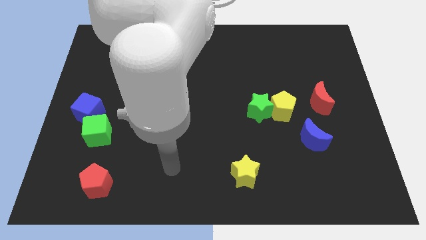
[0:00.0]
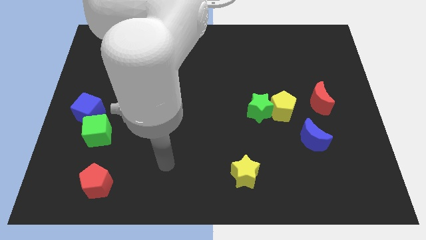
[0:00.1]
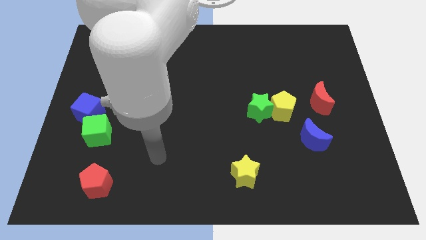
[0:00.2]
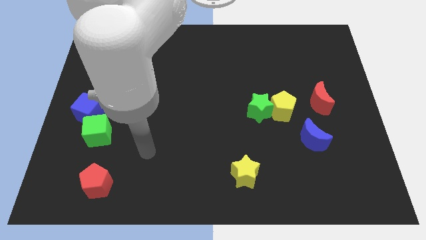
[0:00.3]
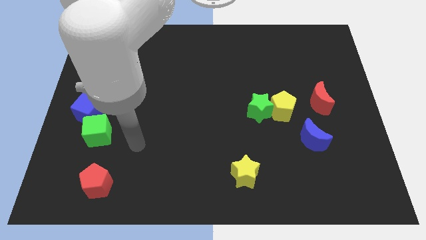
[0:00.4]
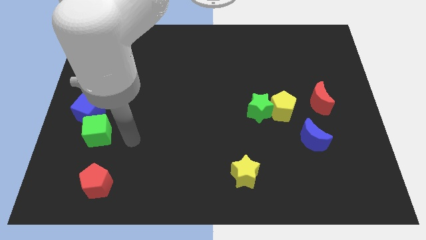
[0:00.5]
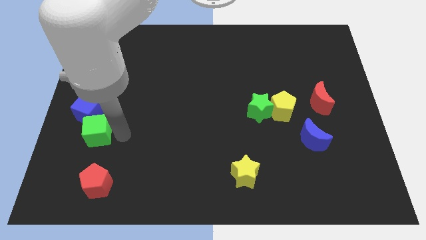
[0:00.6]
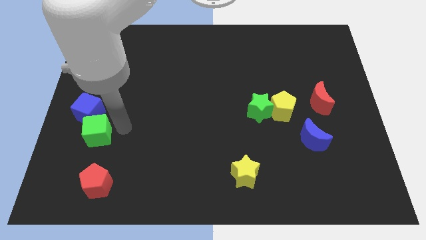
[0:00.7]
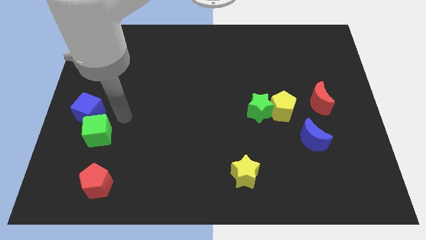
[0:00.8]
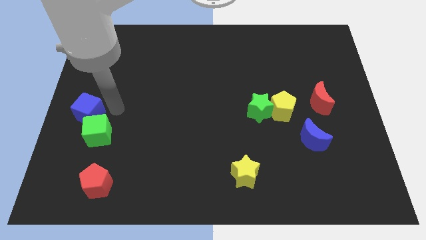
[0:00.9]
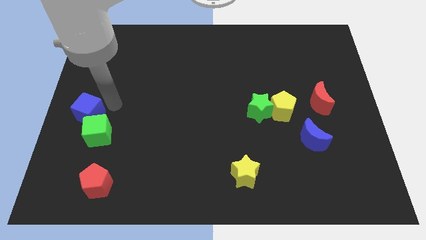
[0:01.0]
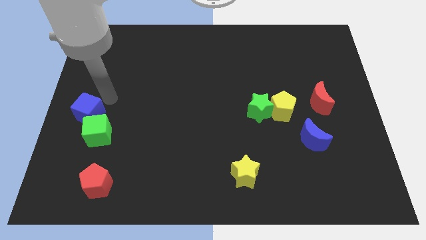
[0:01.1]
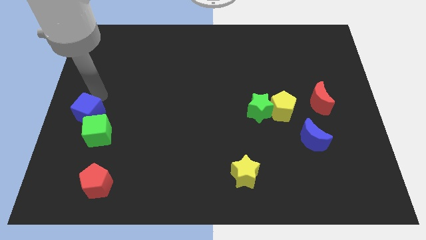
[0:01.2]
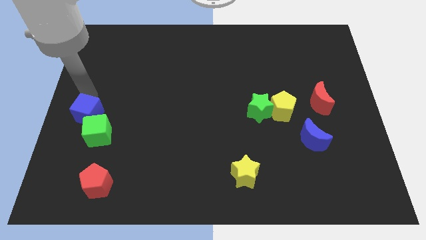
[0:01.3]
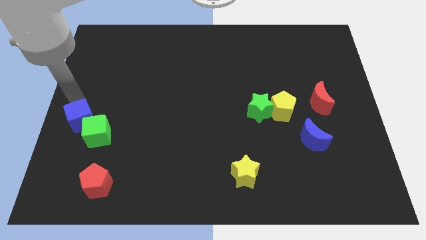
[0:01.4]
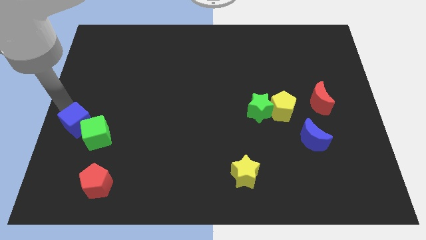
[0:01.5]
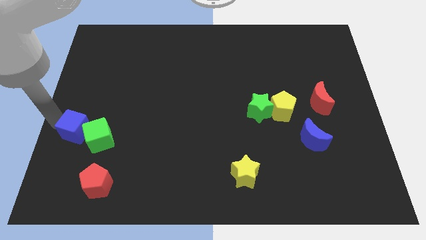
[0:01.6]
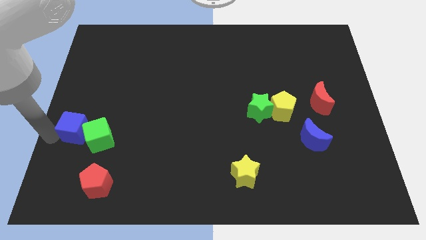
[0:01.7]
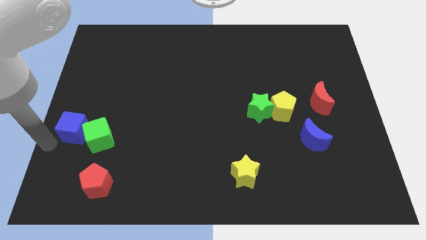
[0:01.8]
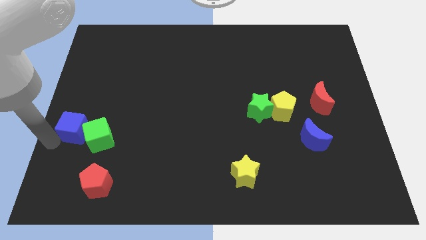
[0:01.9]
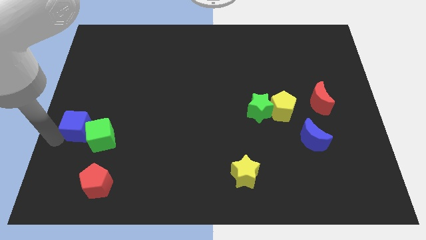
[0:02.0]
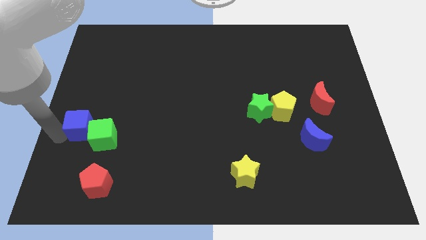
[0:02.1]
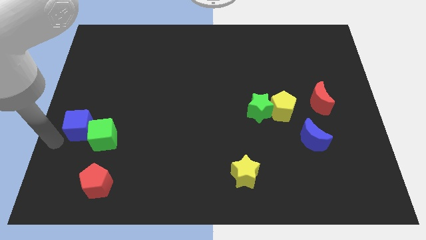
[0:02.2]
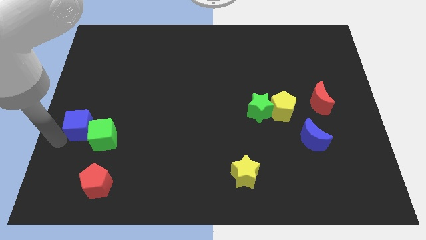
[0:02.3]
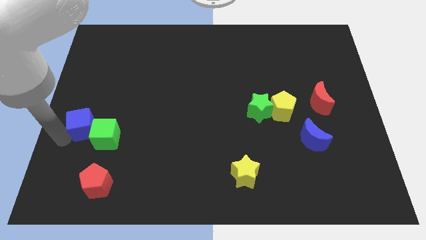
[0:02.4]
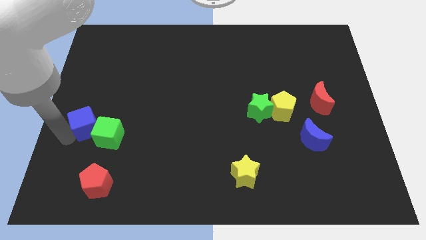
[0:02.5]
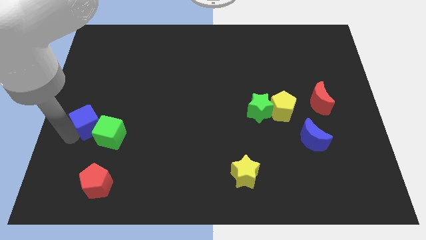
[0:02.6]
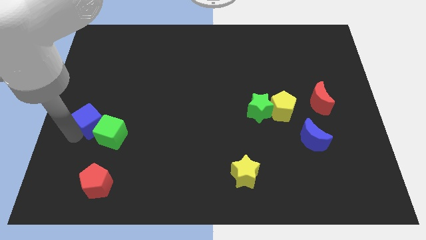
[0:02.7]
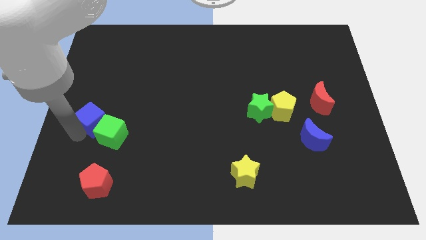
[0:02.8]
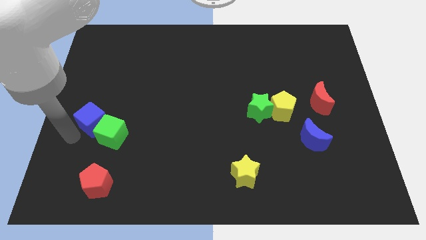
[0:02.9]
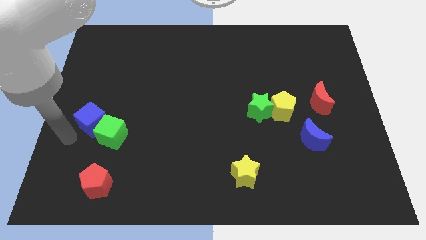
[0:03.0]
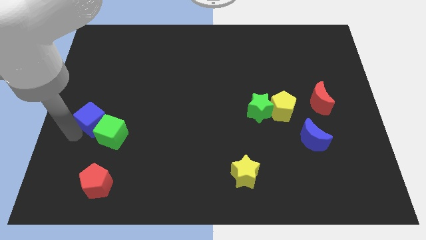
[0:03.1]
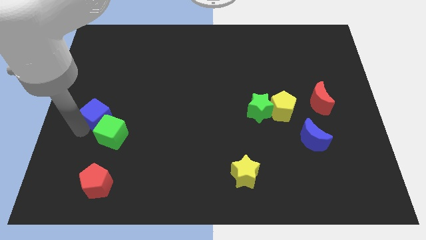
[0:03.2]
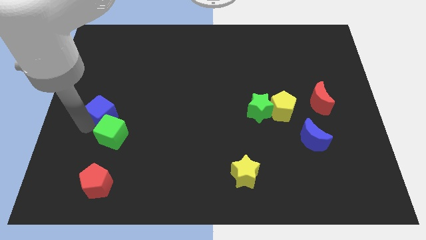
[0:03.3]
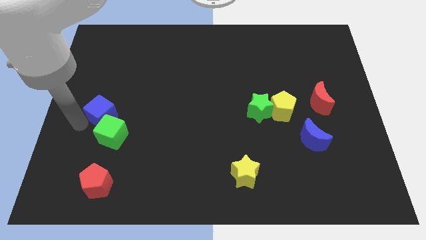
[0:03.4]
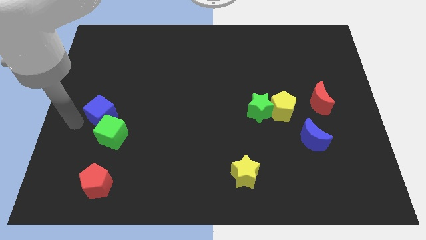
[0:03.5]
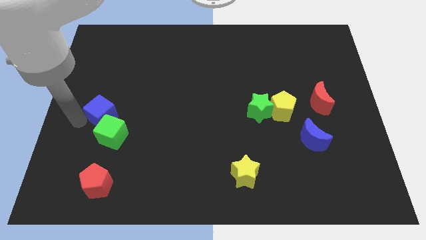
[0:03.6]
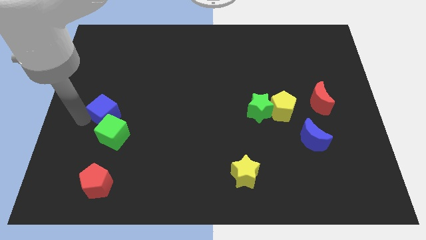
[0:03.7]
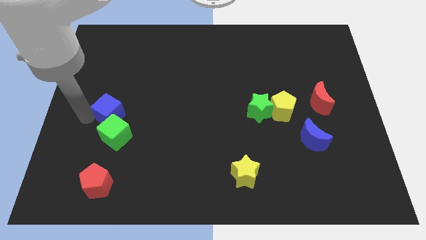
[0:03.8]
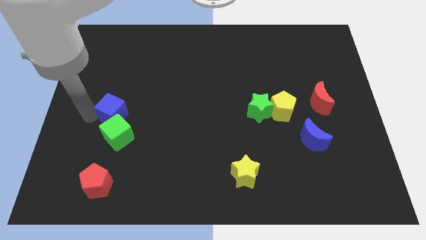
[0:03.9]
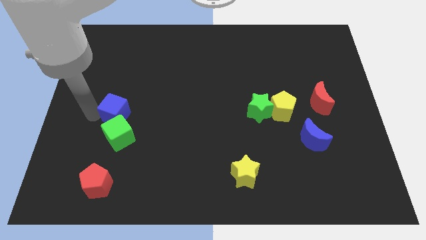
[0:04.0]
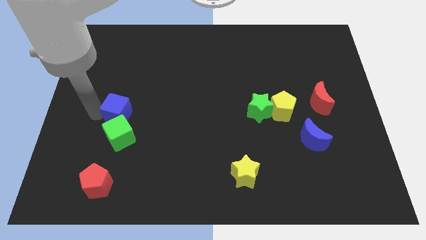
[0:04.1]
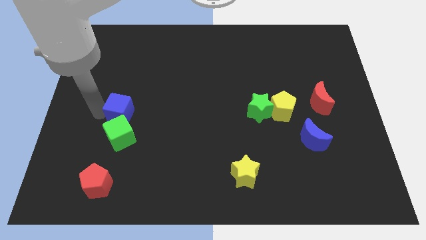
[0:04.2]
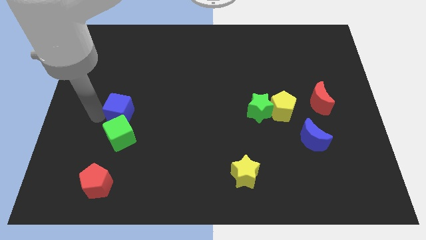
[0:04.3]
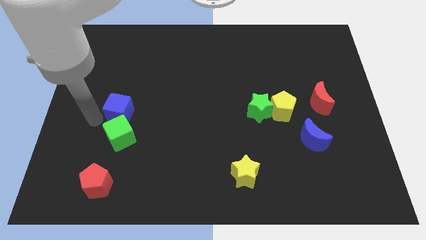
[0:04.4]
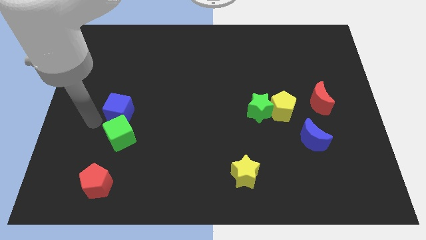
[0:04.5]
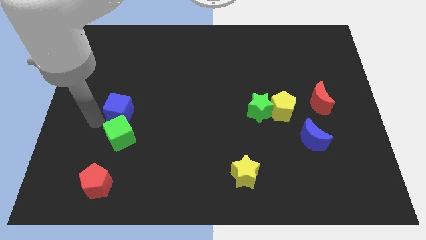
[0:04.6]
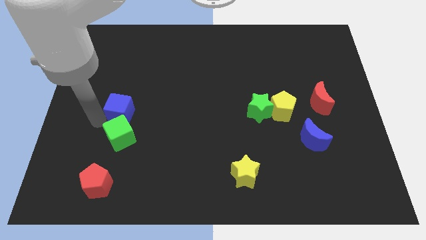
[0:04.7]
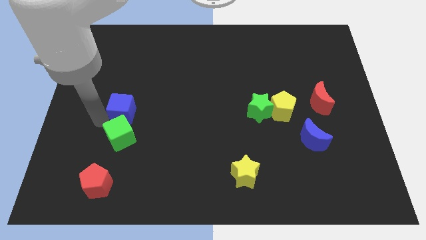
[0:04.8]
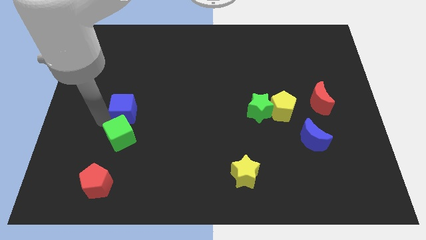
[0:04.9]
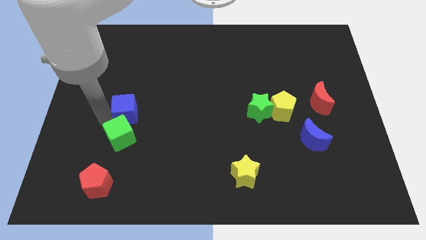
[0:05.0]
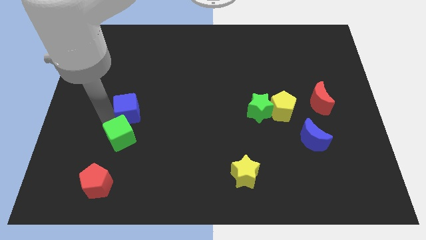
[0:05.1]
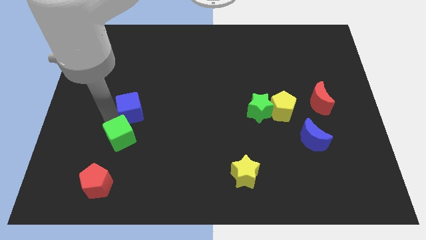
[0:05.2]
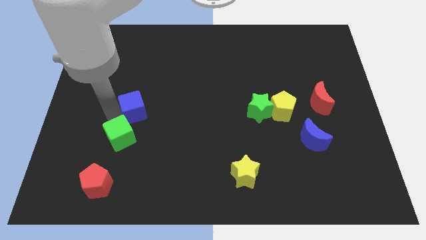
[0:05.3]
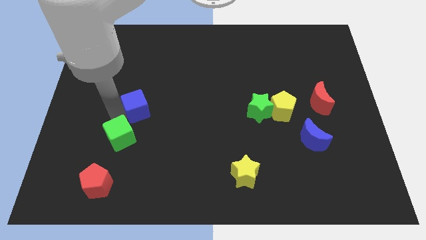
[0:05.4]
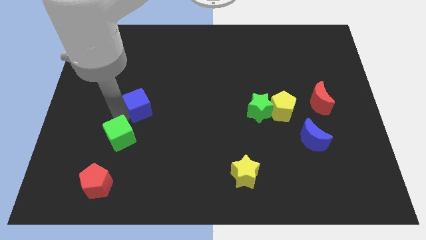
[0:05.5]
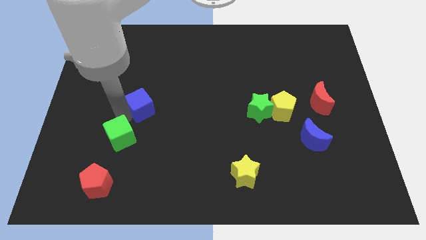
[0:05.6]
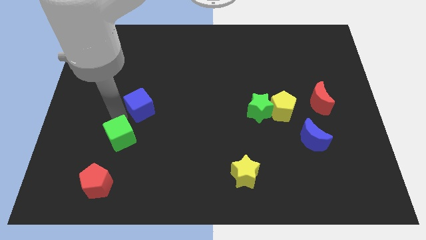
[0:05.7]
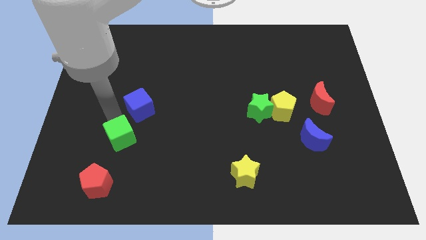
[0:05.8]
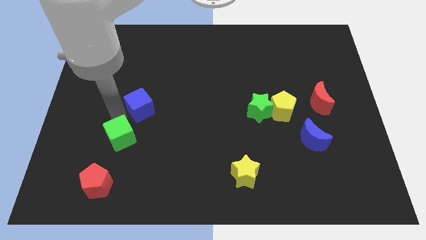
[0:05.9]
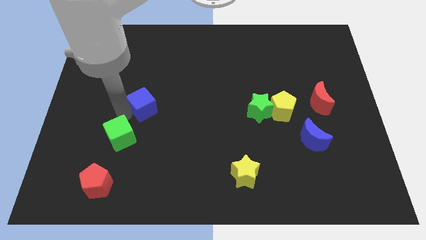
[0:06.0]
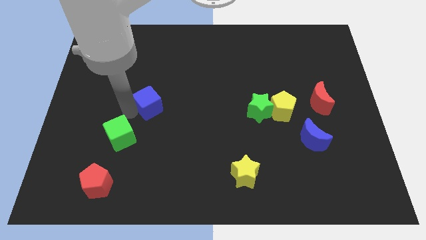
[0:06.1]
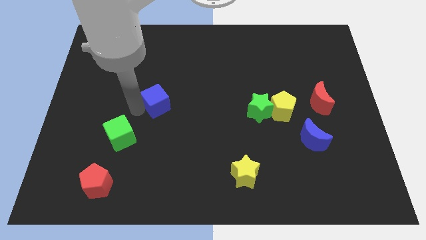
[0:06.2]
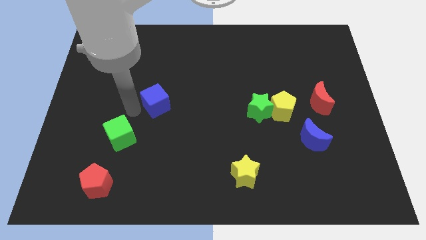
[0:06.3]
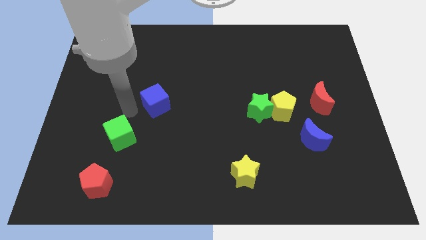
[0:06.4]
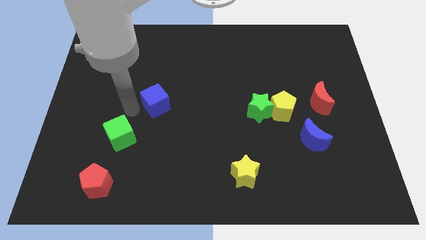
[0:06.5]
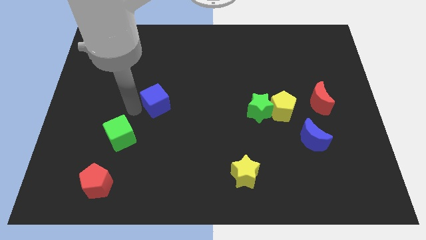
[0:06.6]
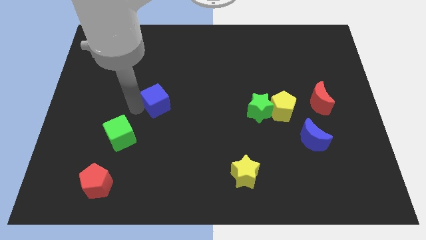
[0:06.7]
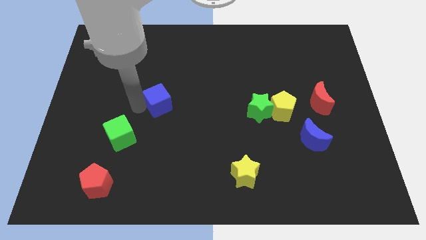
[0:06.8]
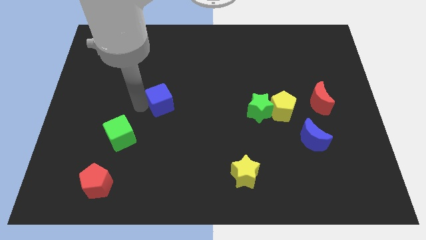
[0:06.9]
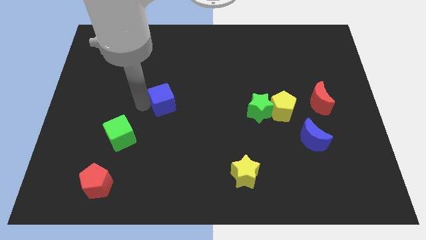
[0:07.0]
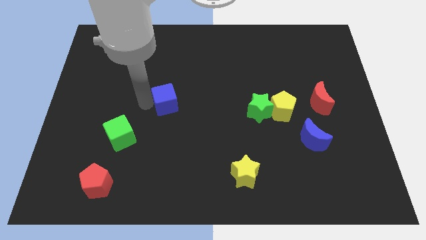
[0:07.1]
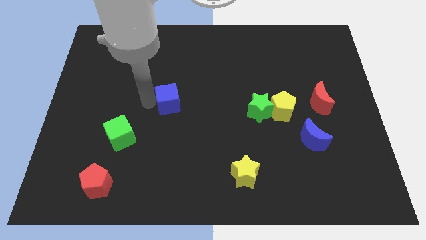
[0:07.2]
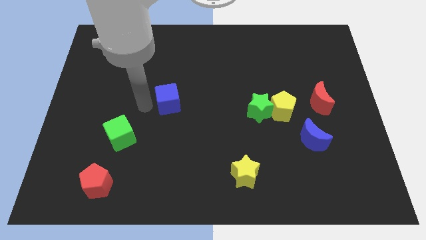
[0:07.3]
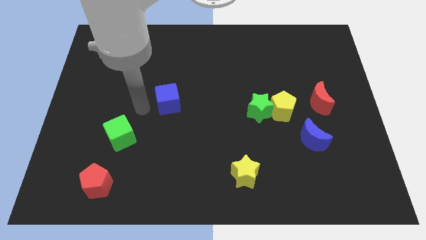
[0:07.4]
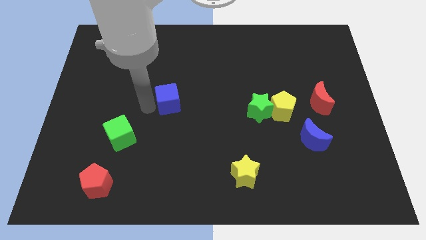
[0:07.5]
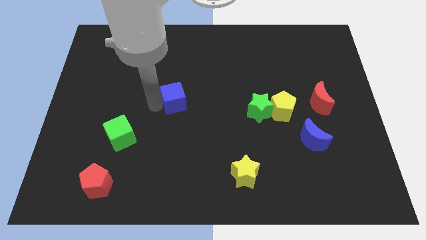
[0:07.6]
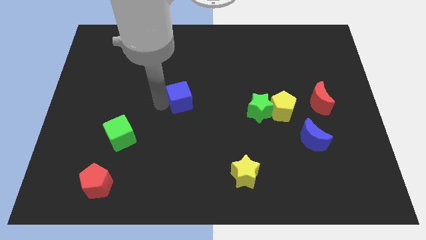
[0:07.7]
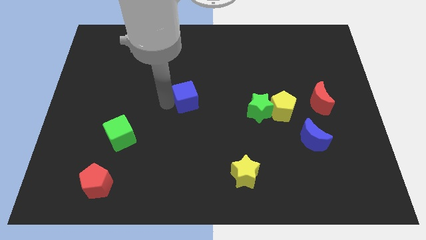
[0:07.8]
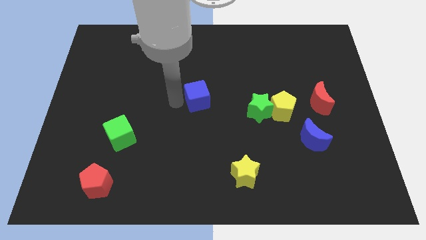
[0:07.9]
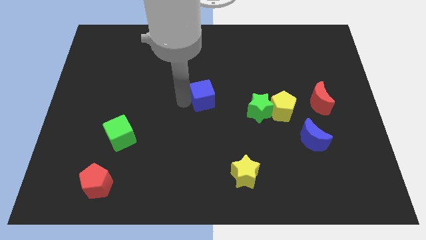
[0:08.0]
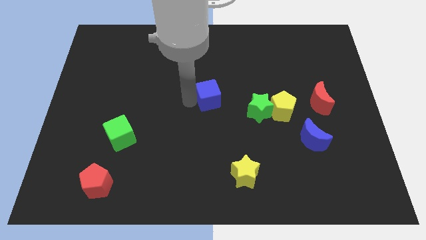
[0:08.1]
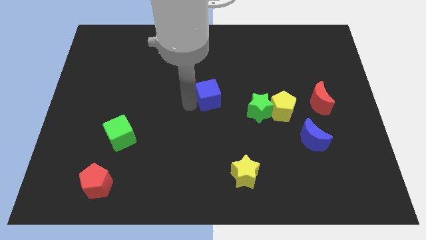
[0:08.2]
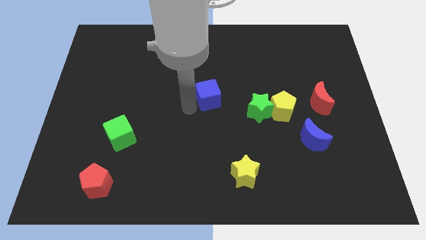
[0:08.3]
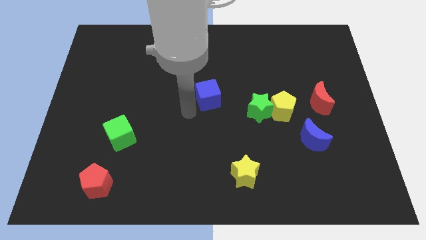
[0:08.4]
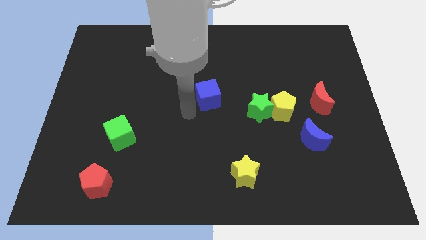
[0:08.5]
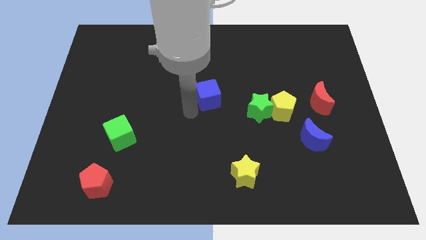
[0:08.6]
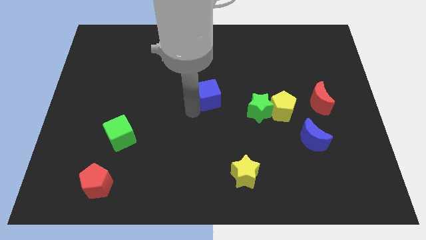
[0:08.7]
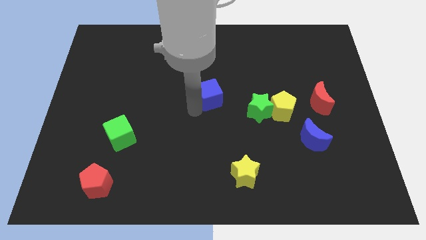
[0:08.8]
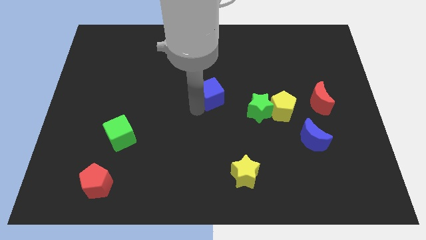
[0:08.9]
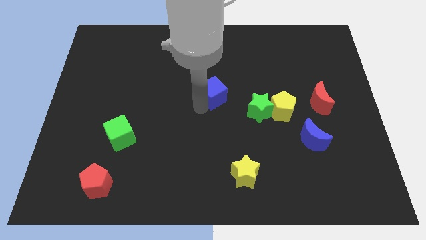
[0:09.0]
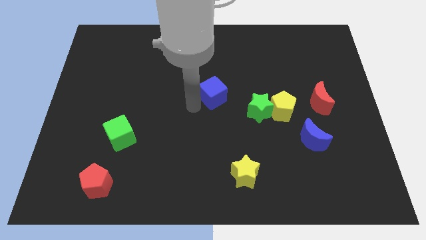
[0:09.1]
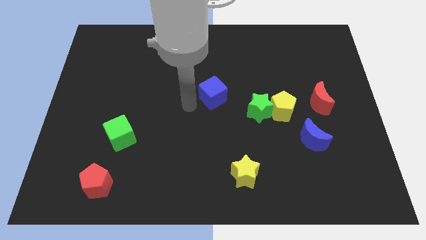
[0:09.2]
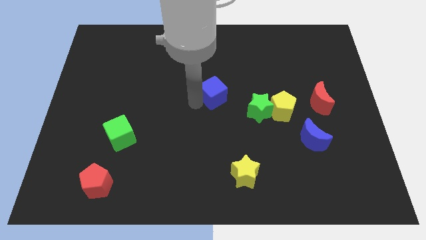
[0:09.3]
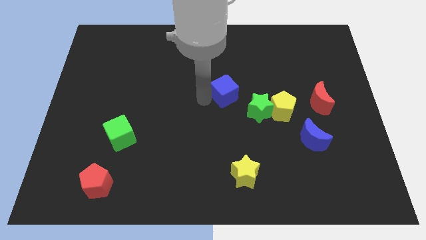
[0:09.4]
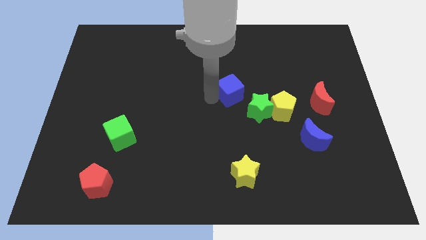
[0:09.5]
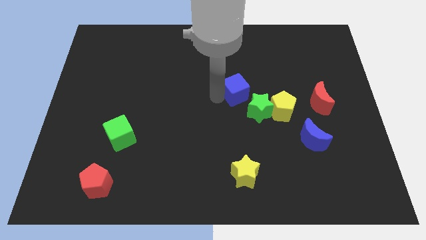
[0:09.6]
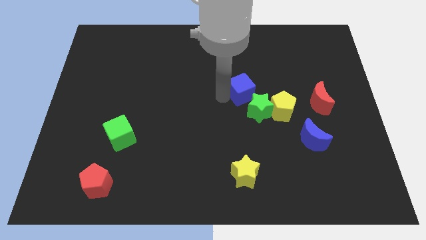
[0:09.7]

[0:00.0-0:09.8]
put the blue cube to the top of the green star
